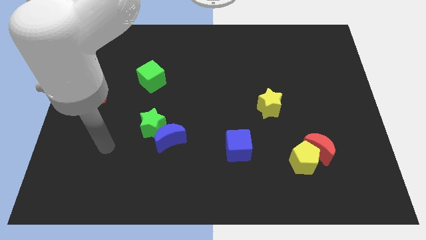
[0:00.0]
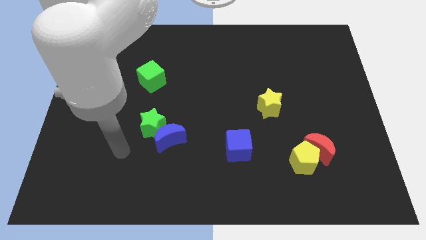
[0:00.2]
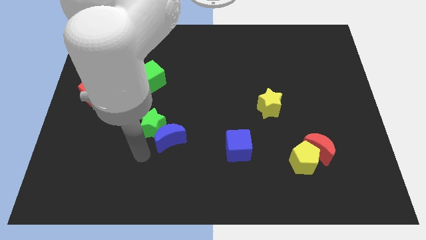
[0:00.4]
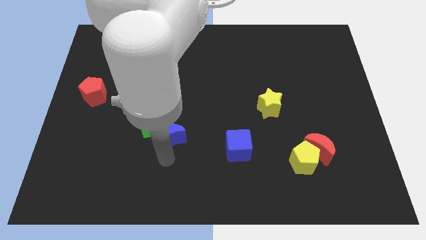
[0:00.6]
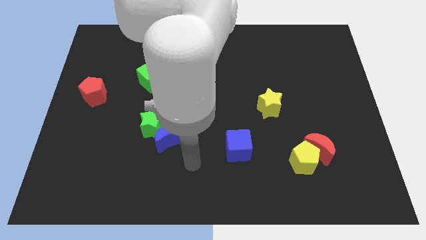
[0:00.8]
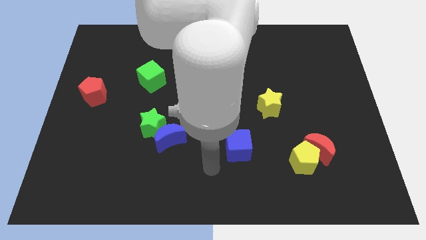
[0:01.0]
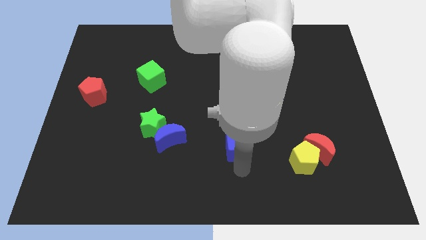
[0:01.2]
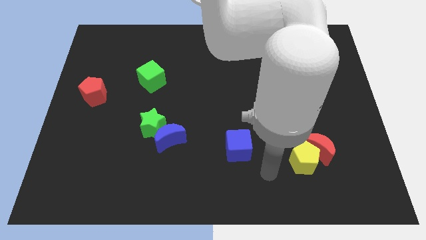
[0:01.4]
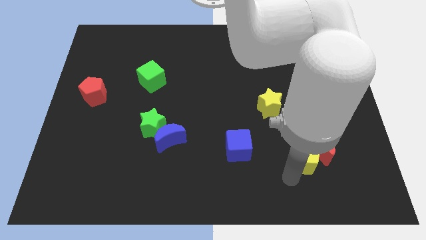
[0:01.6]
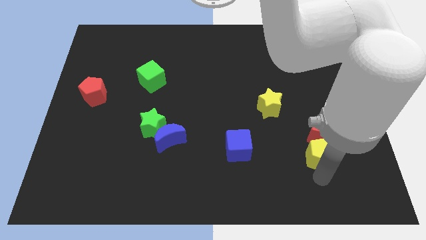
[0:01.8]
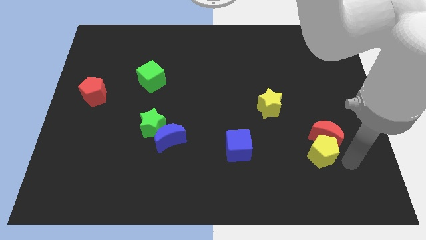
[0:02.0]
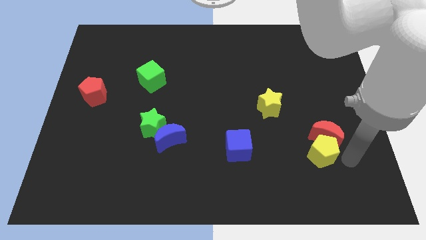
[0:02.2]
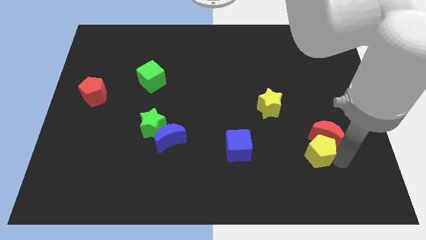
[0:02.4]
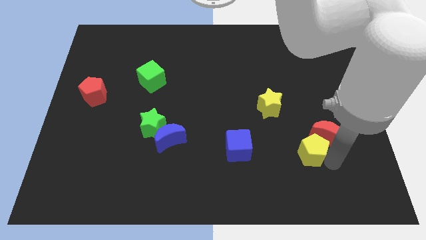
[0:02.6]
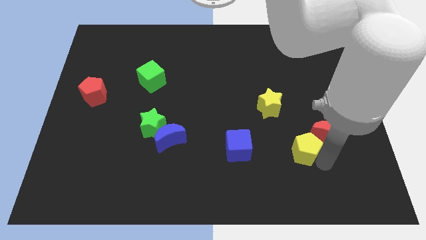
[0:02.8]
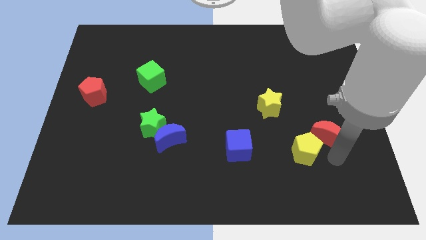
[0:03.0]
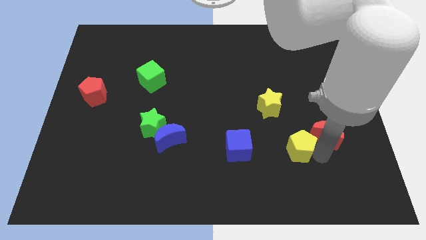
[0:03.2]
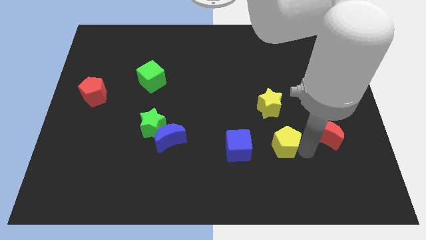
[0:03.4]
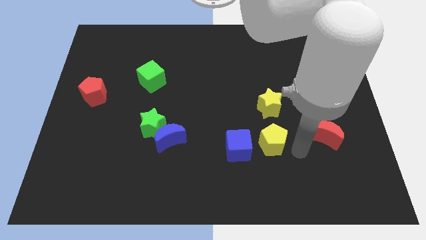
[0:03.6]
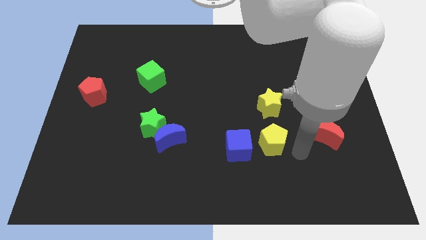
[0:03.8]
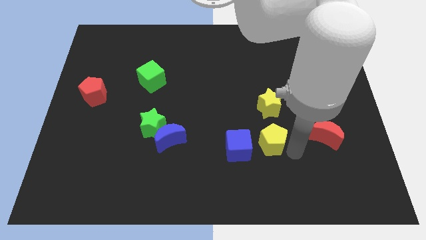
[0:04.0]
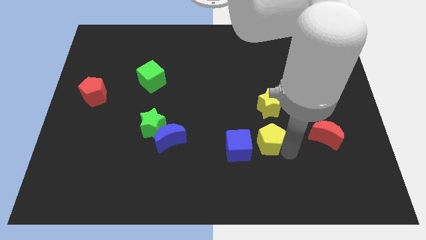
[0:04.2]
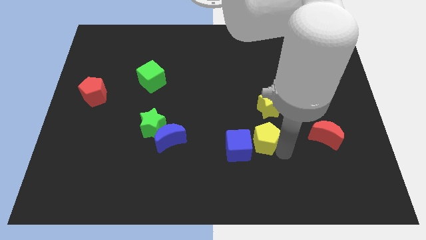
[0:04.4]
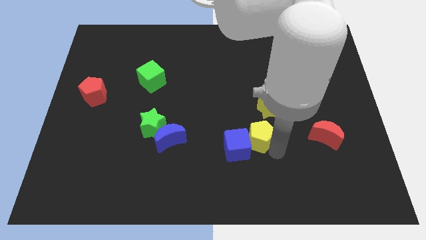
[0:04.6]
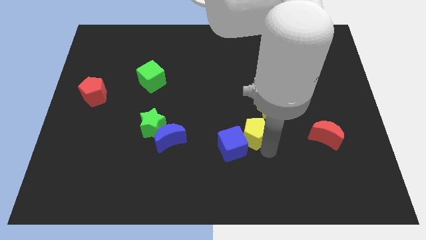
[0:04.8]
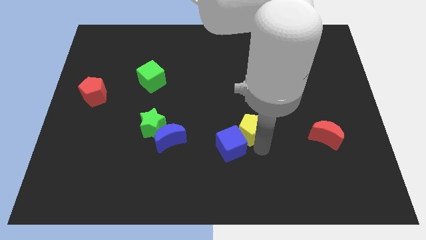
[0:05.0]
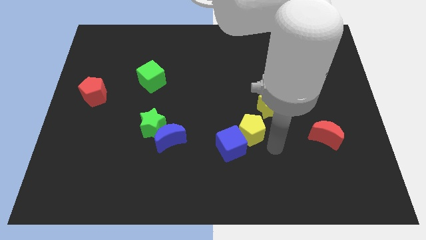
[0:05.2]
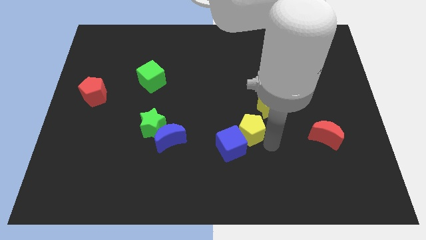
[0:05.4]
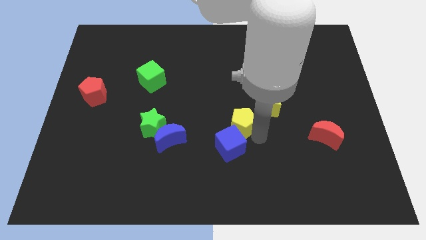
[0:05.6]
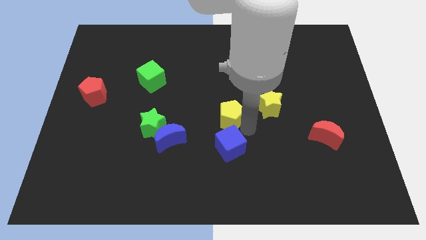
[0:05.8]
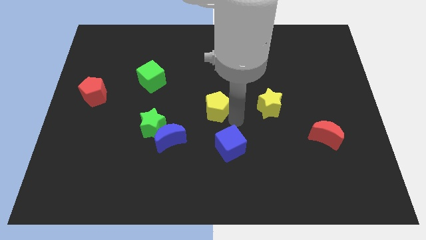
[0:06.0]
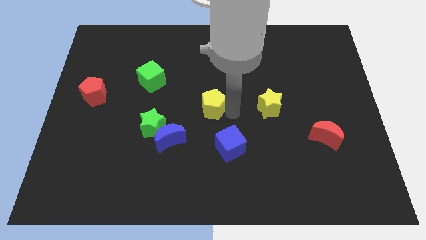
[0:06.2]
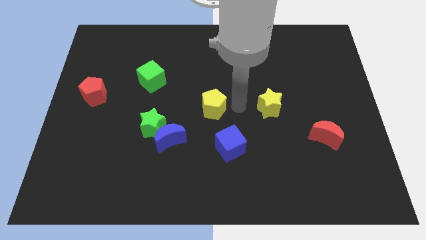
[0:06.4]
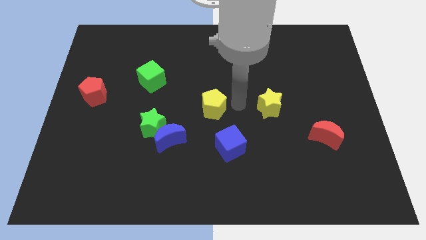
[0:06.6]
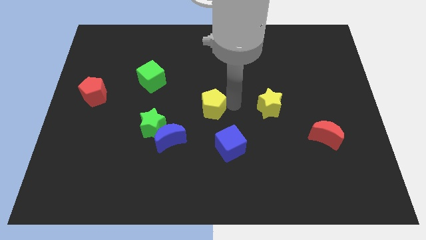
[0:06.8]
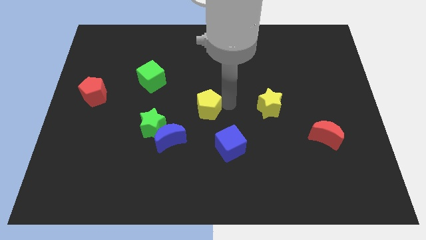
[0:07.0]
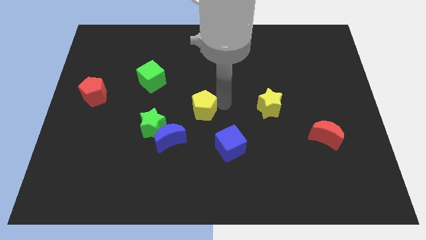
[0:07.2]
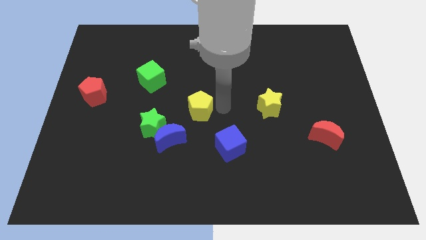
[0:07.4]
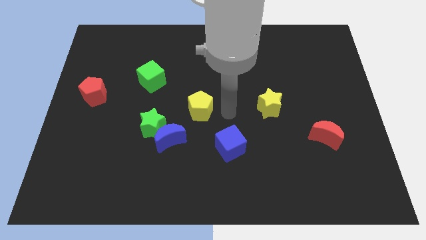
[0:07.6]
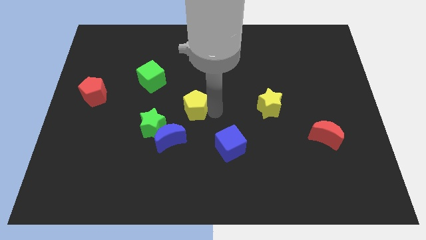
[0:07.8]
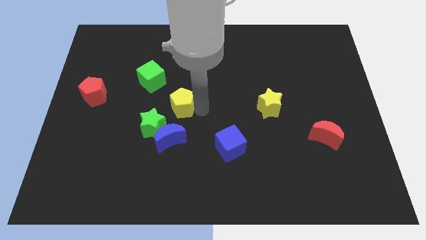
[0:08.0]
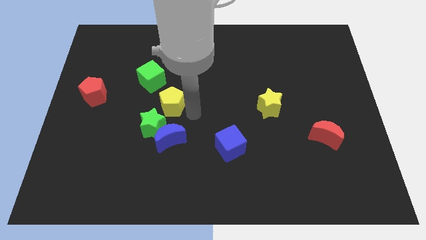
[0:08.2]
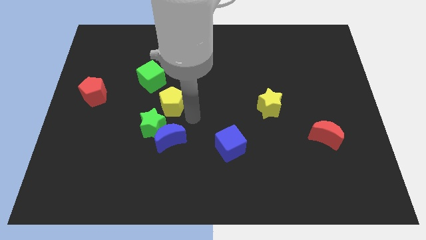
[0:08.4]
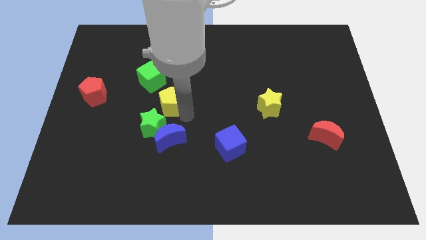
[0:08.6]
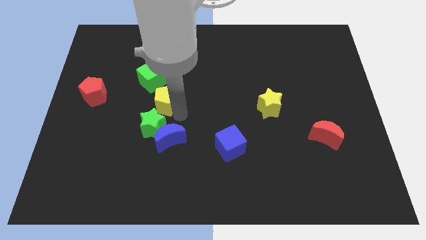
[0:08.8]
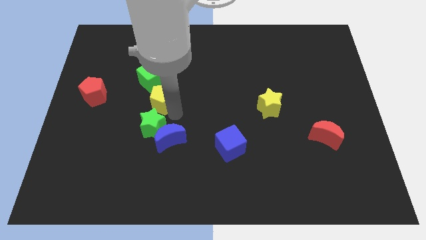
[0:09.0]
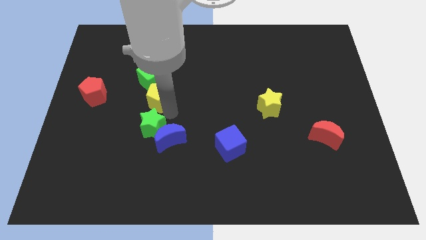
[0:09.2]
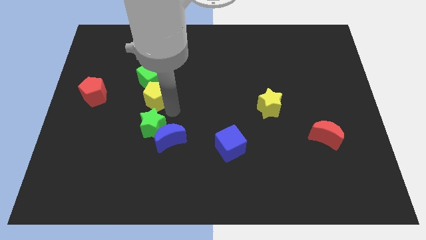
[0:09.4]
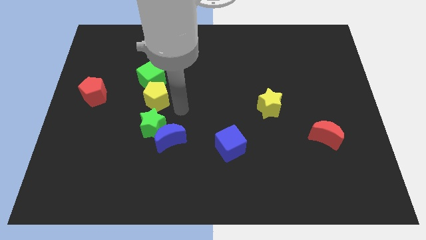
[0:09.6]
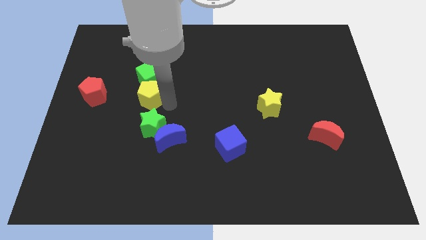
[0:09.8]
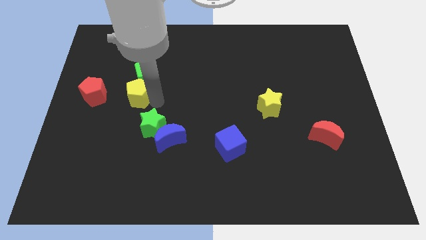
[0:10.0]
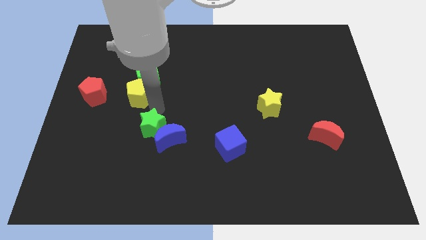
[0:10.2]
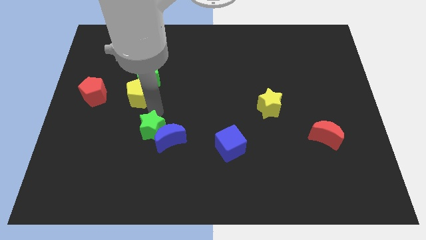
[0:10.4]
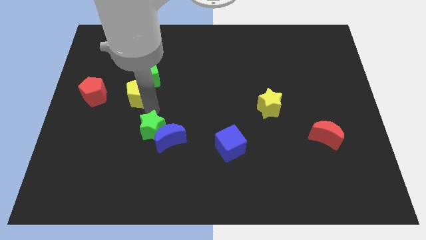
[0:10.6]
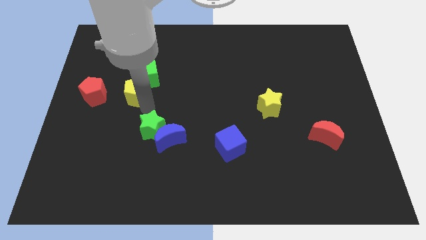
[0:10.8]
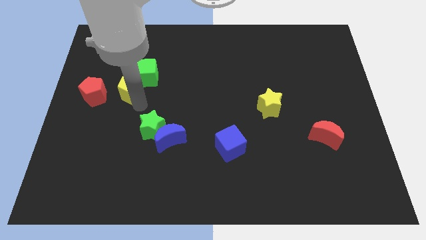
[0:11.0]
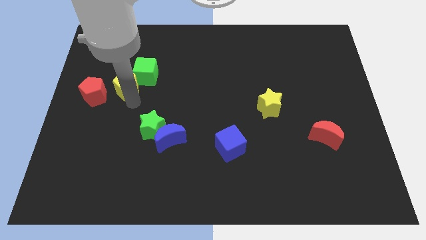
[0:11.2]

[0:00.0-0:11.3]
move the yellow pentagon just left of the green cube

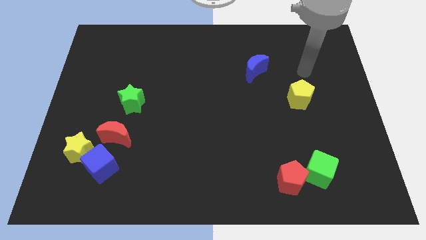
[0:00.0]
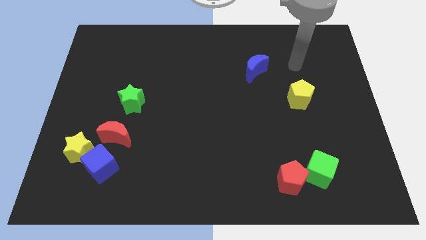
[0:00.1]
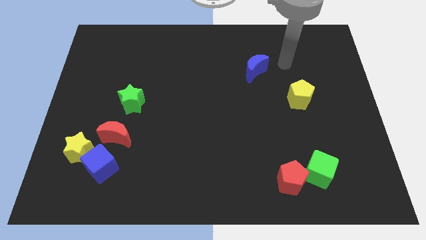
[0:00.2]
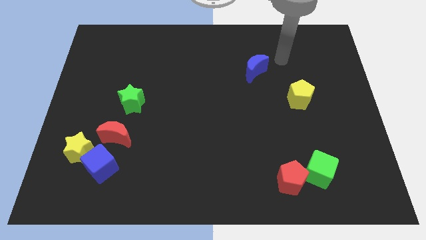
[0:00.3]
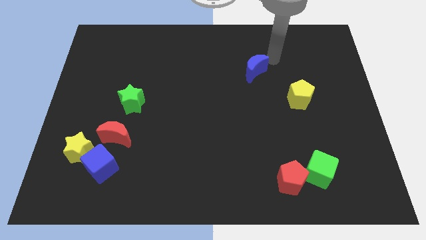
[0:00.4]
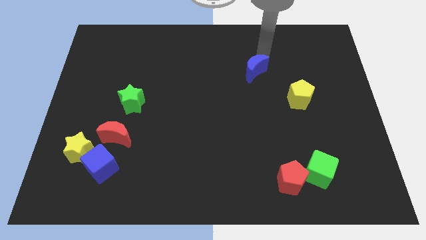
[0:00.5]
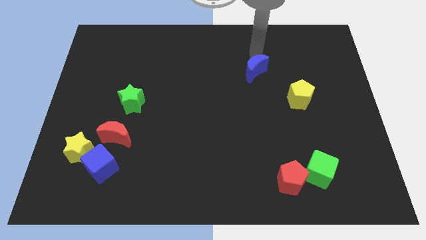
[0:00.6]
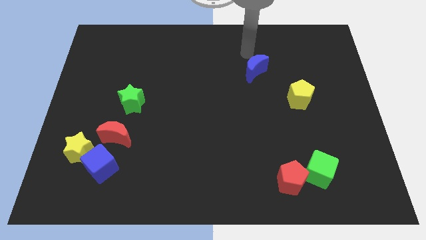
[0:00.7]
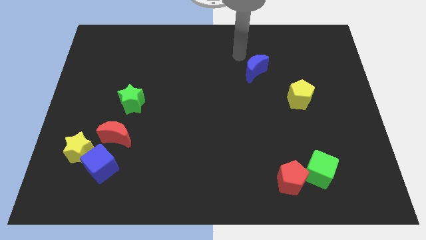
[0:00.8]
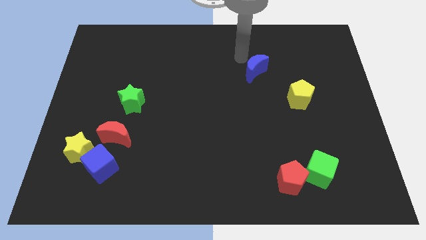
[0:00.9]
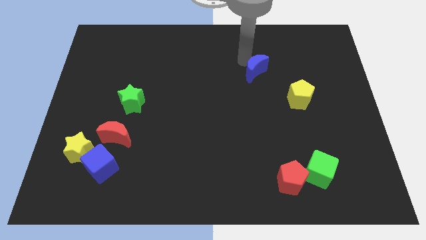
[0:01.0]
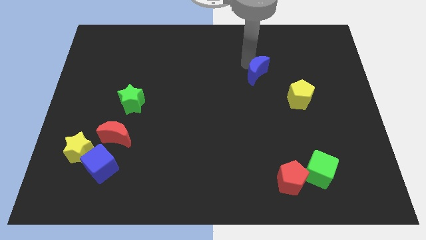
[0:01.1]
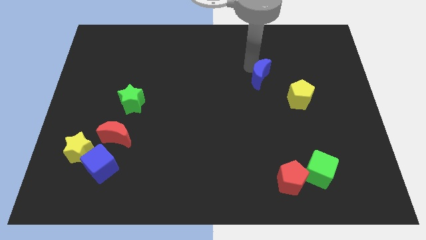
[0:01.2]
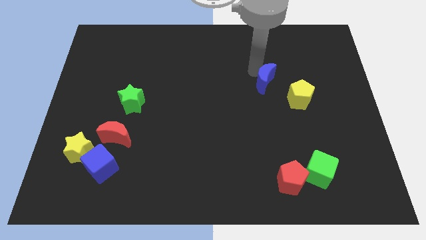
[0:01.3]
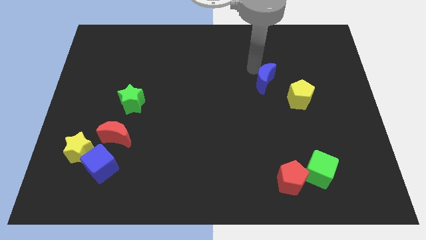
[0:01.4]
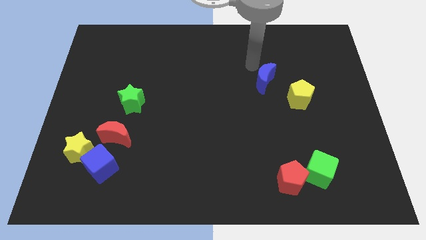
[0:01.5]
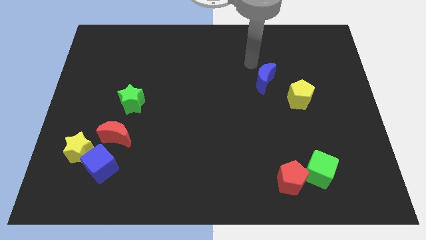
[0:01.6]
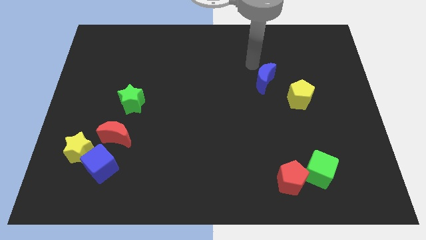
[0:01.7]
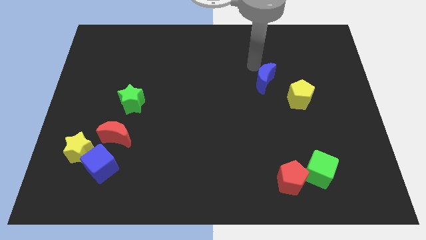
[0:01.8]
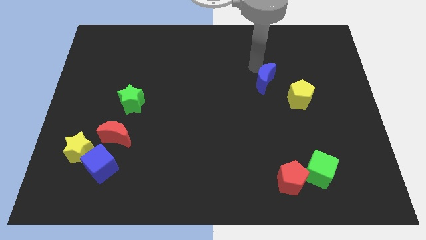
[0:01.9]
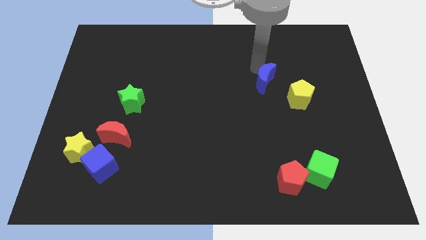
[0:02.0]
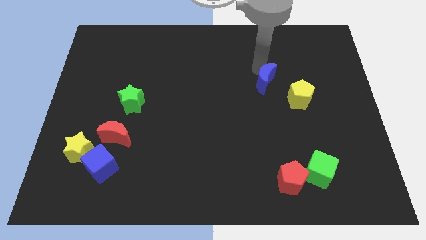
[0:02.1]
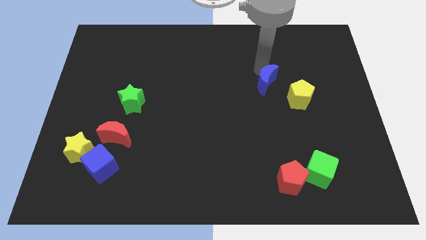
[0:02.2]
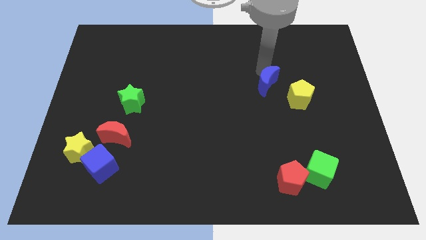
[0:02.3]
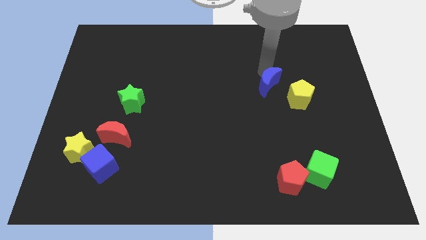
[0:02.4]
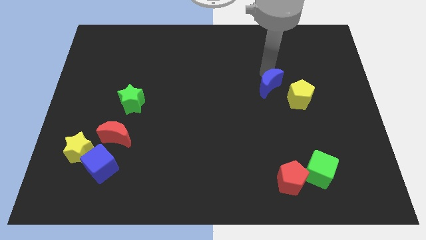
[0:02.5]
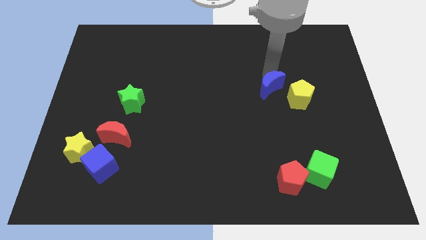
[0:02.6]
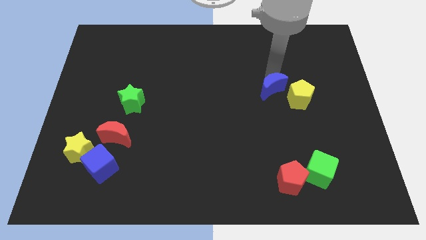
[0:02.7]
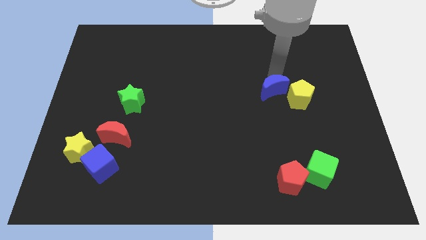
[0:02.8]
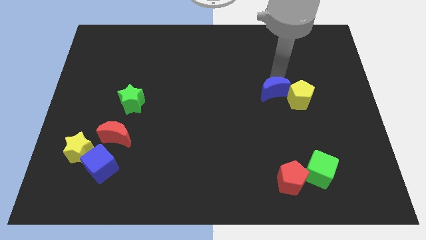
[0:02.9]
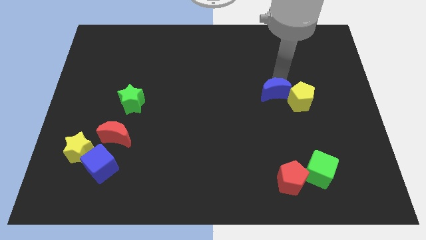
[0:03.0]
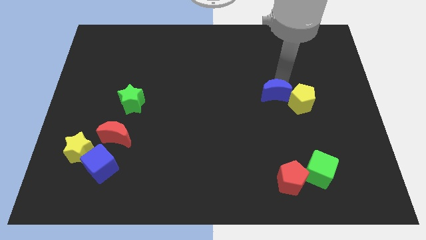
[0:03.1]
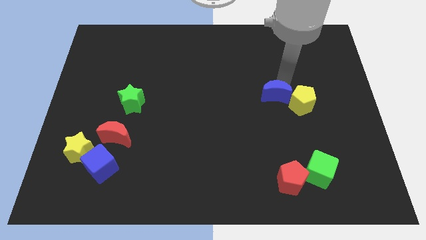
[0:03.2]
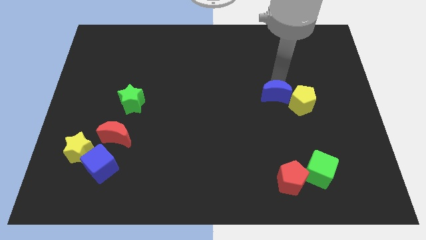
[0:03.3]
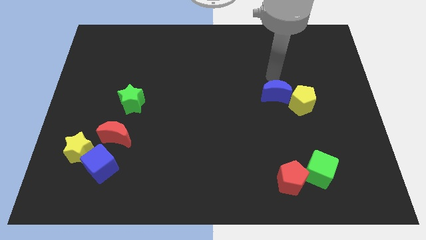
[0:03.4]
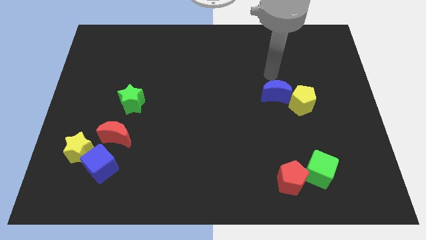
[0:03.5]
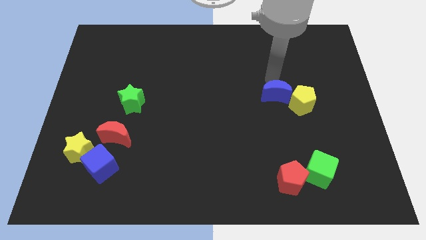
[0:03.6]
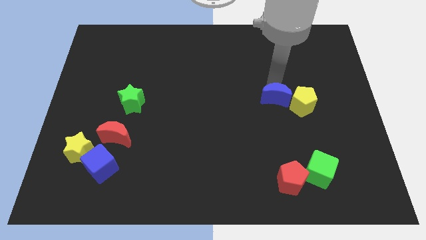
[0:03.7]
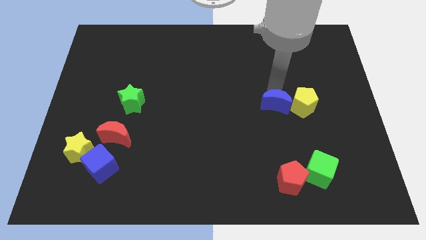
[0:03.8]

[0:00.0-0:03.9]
slide the blue moon diagonally down and to the left of the yellow pentagon
